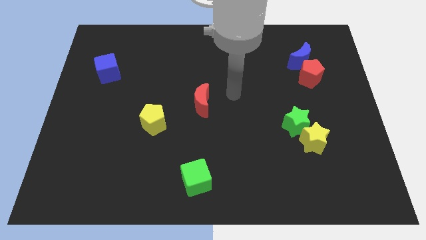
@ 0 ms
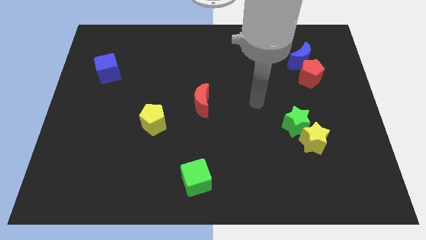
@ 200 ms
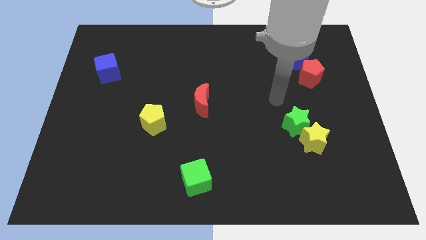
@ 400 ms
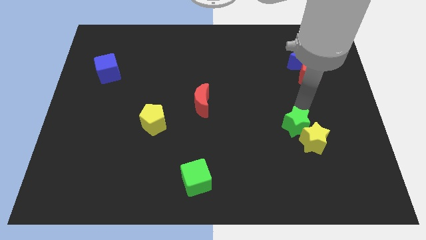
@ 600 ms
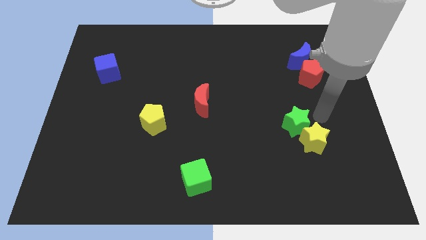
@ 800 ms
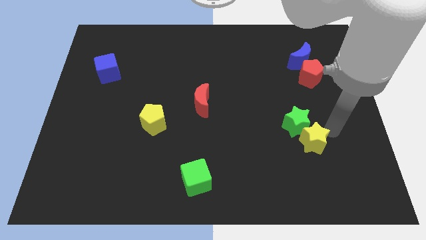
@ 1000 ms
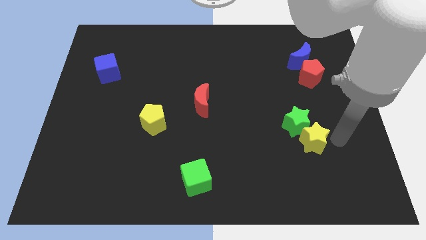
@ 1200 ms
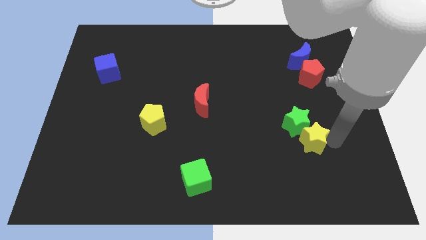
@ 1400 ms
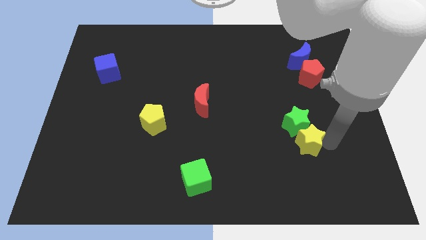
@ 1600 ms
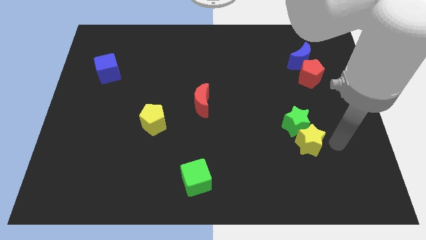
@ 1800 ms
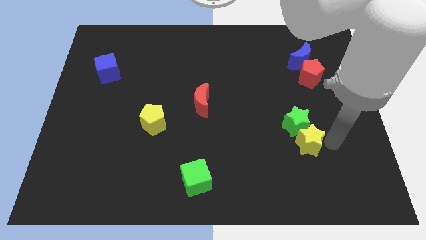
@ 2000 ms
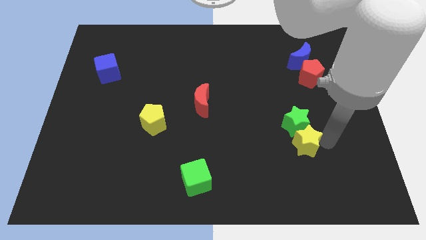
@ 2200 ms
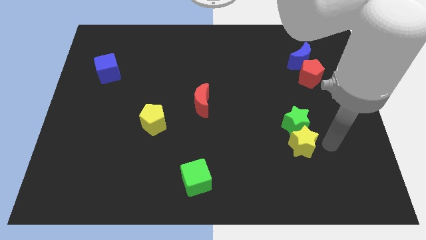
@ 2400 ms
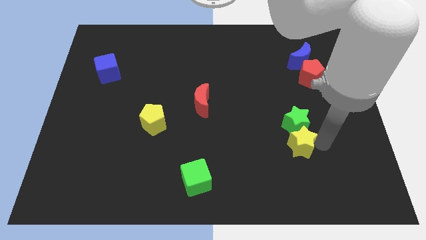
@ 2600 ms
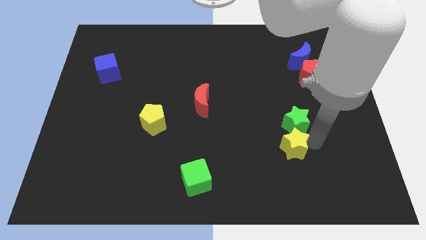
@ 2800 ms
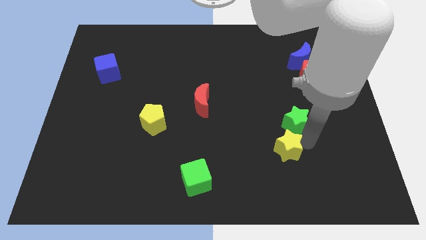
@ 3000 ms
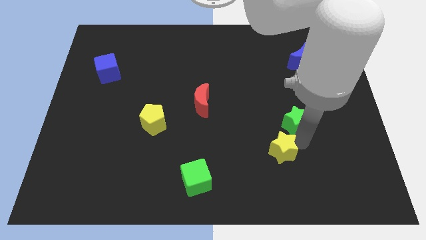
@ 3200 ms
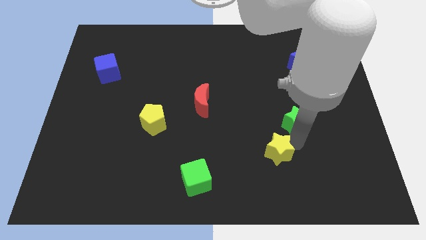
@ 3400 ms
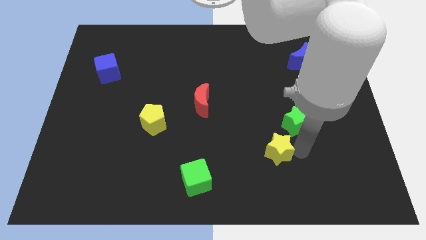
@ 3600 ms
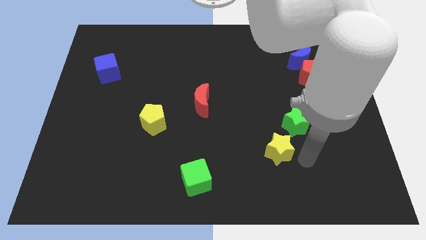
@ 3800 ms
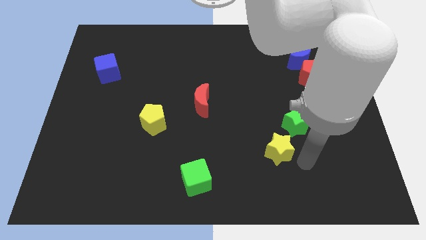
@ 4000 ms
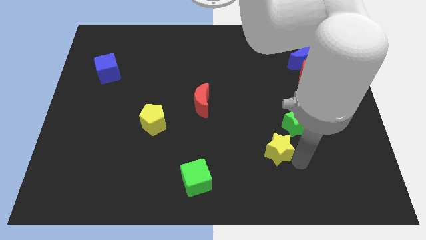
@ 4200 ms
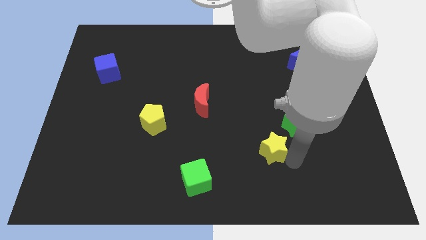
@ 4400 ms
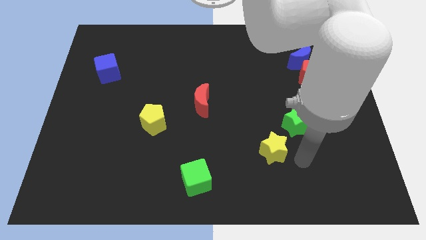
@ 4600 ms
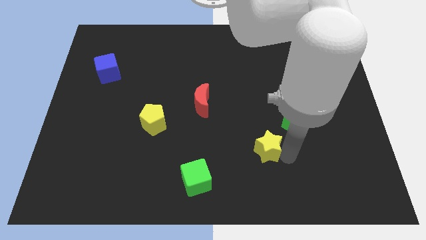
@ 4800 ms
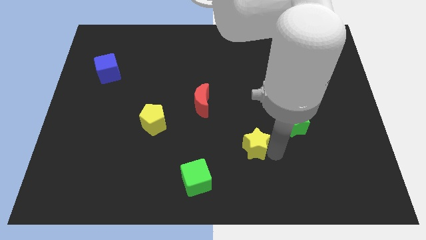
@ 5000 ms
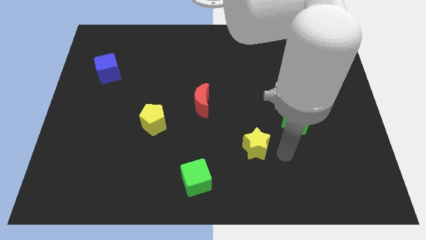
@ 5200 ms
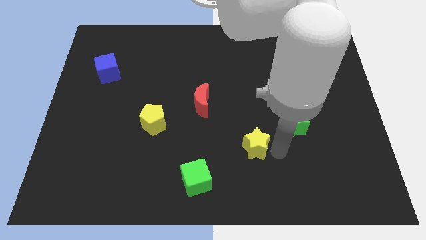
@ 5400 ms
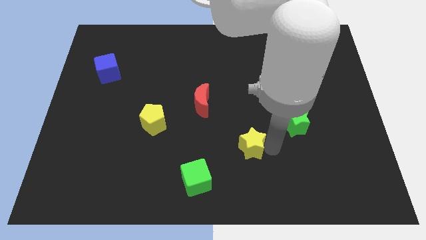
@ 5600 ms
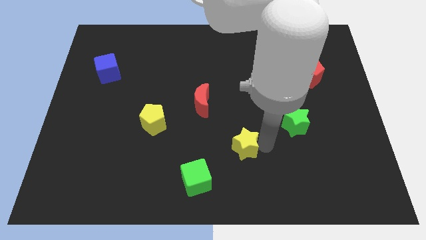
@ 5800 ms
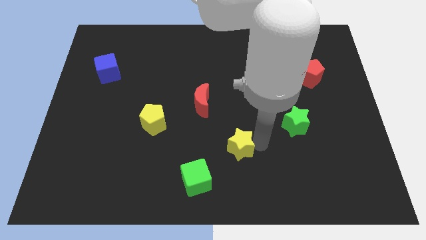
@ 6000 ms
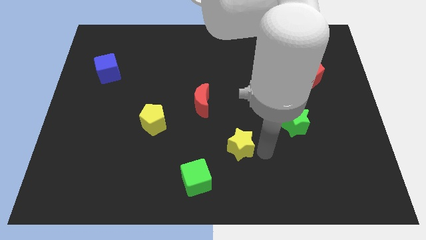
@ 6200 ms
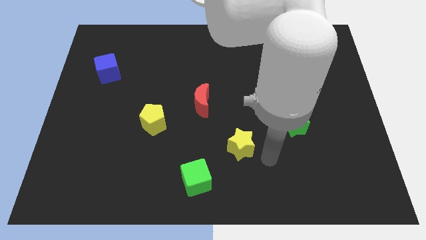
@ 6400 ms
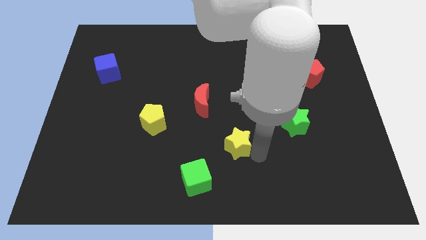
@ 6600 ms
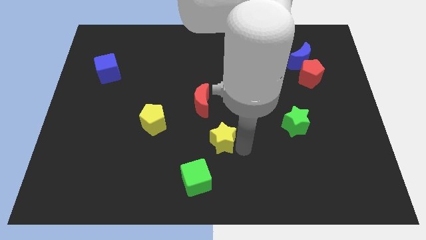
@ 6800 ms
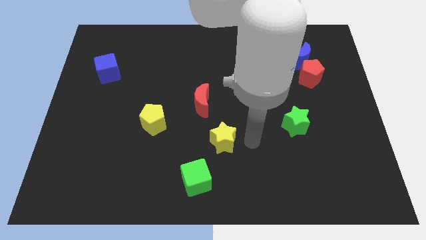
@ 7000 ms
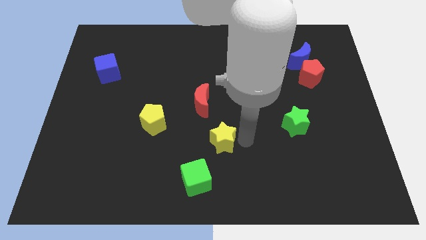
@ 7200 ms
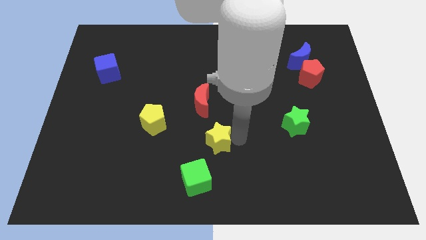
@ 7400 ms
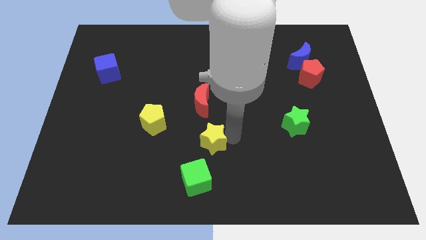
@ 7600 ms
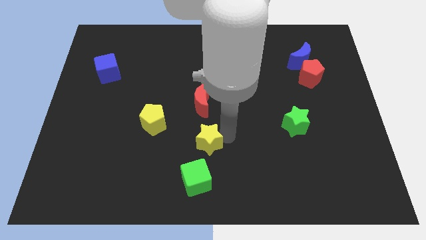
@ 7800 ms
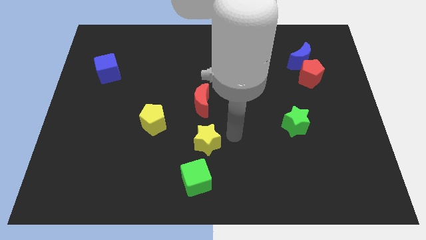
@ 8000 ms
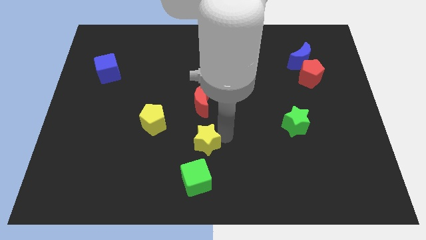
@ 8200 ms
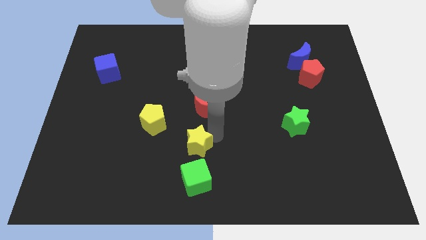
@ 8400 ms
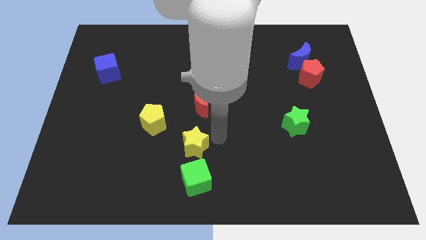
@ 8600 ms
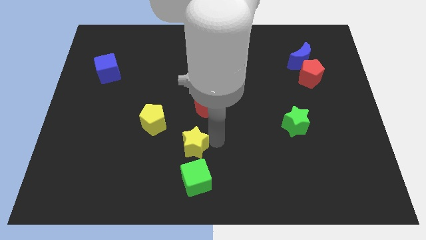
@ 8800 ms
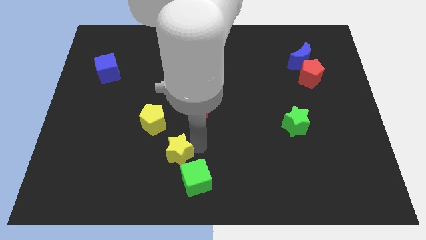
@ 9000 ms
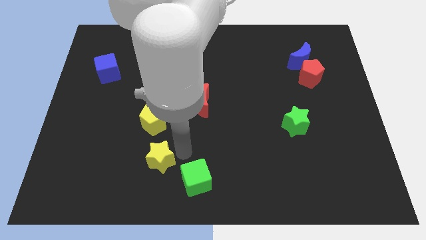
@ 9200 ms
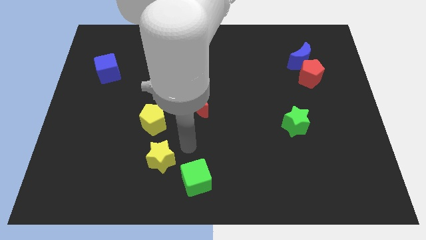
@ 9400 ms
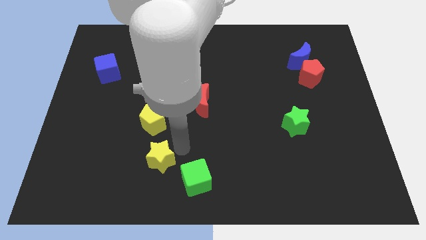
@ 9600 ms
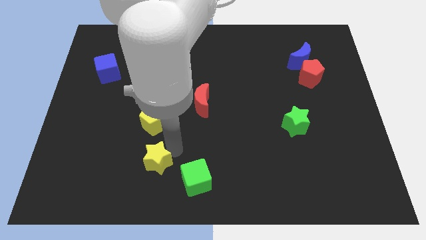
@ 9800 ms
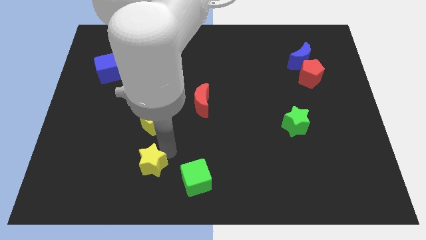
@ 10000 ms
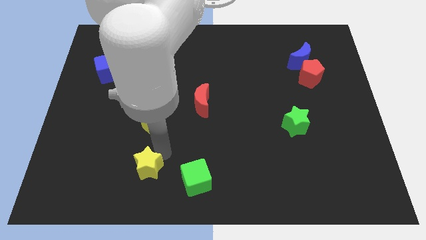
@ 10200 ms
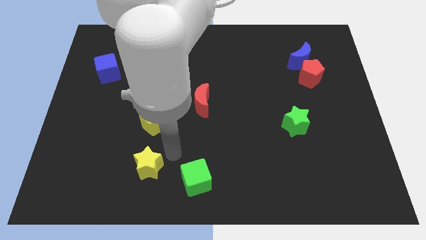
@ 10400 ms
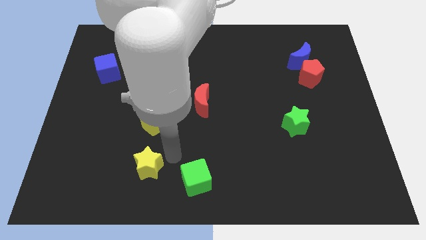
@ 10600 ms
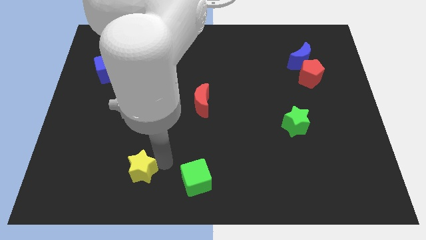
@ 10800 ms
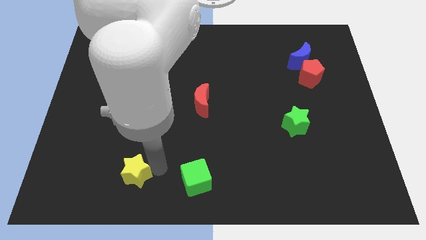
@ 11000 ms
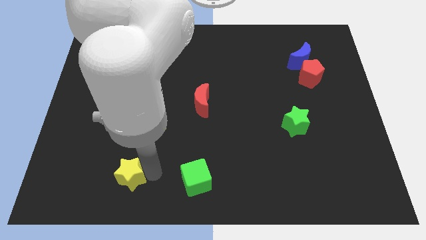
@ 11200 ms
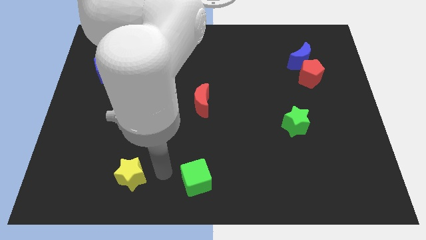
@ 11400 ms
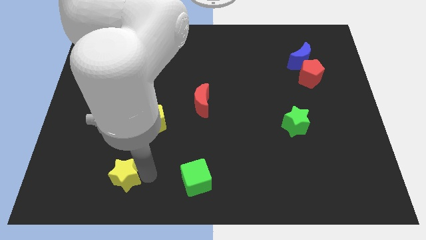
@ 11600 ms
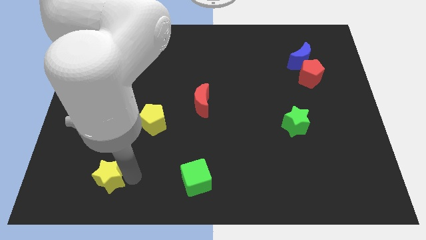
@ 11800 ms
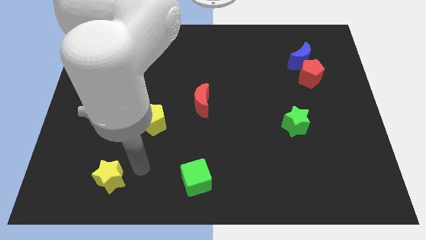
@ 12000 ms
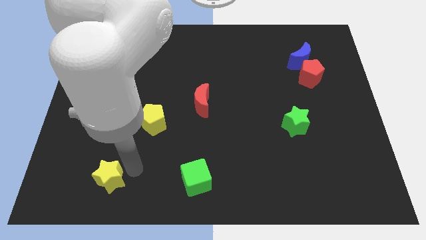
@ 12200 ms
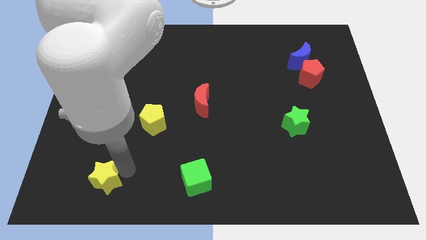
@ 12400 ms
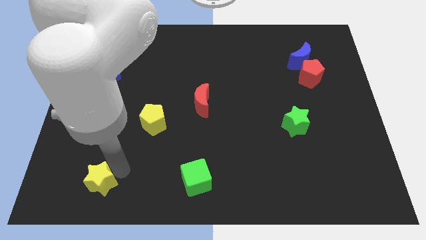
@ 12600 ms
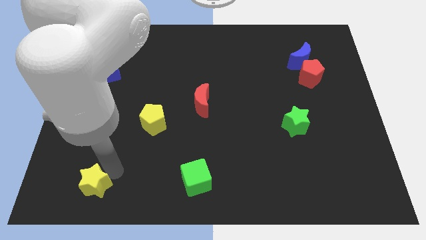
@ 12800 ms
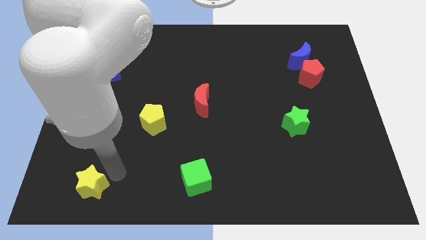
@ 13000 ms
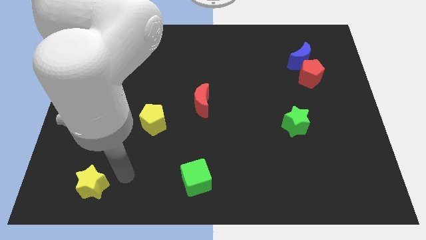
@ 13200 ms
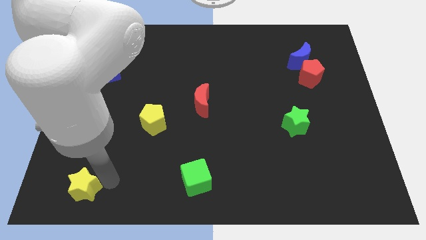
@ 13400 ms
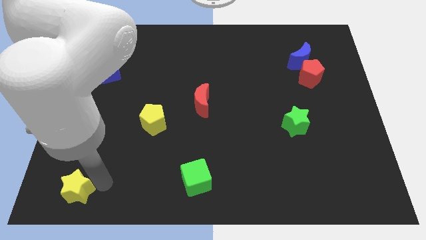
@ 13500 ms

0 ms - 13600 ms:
slide the yellow star to the bottom left of the board

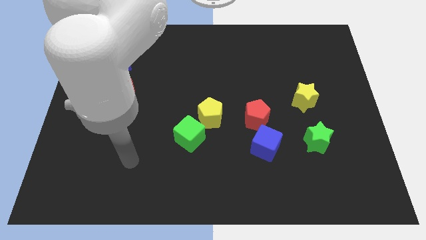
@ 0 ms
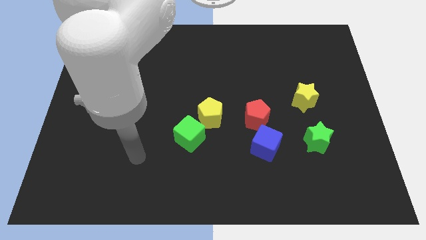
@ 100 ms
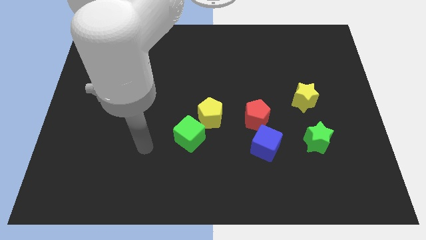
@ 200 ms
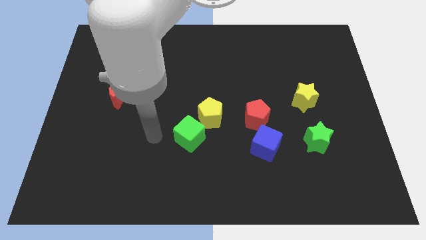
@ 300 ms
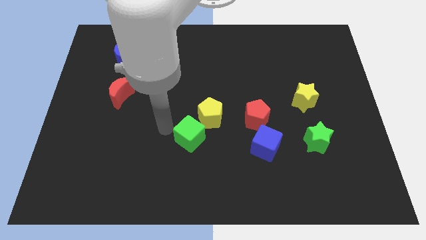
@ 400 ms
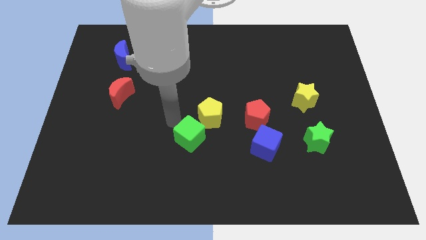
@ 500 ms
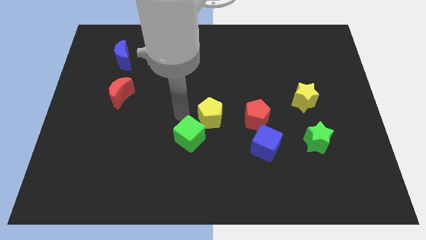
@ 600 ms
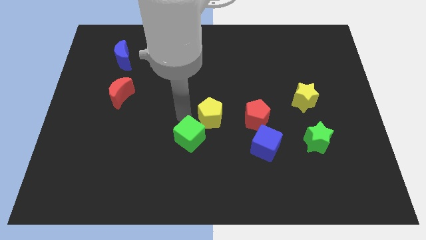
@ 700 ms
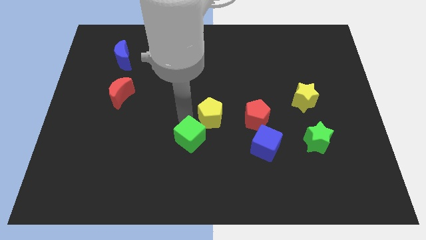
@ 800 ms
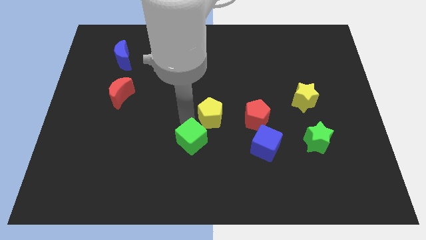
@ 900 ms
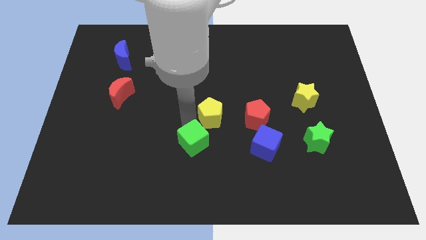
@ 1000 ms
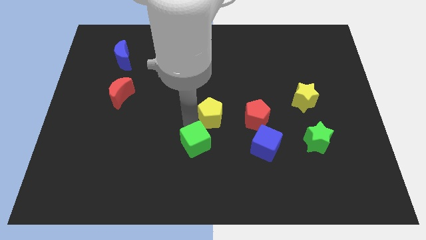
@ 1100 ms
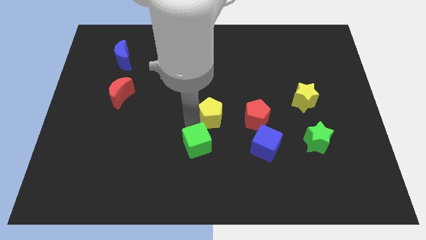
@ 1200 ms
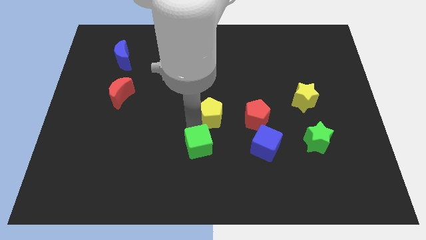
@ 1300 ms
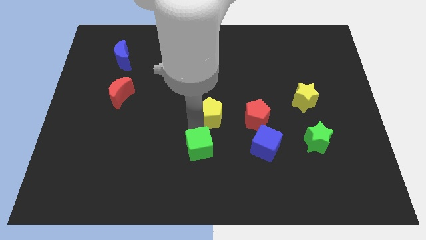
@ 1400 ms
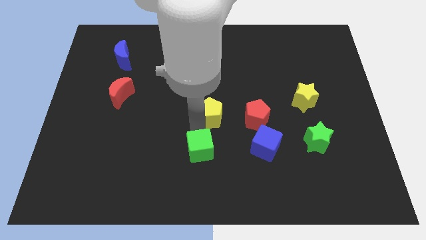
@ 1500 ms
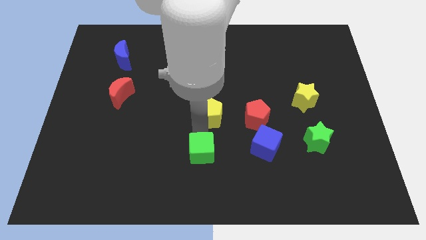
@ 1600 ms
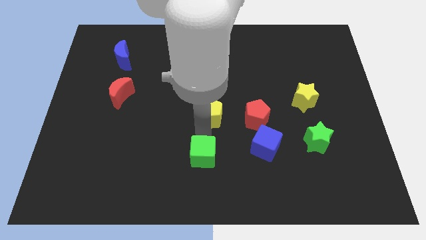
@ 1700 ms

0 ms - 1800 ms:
push the green cube to the bottom
